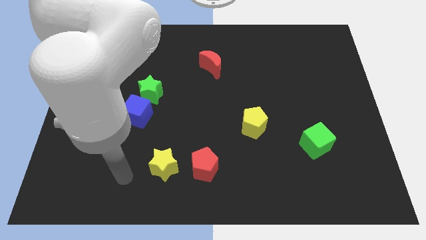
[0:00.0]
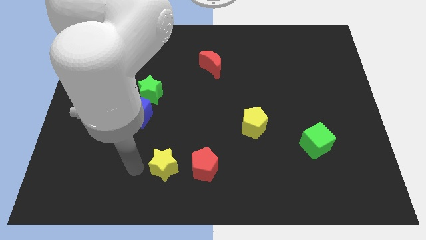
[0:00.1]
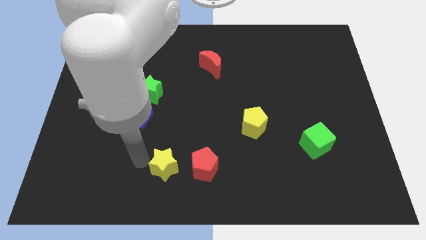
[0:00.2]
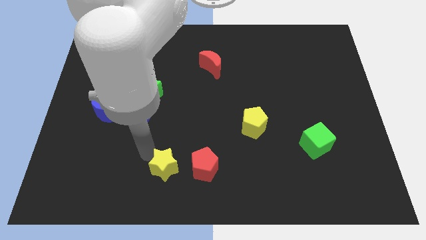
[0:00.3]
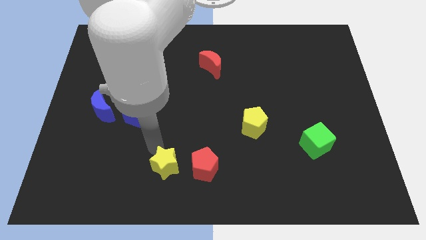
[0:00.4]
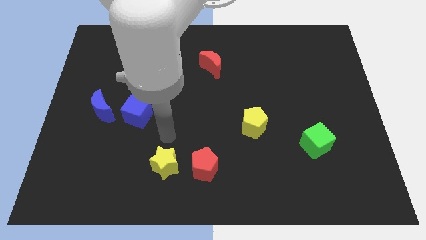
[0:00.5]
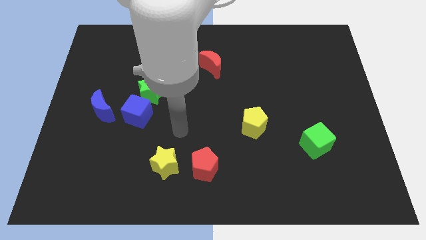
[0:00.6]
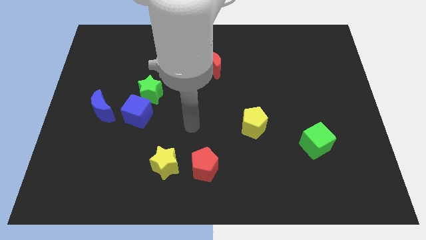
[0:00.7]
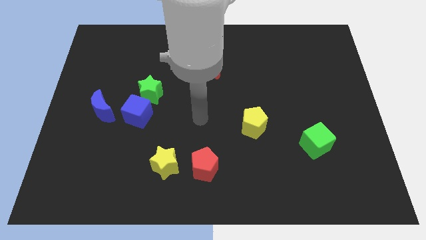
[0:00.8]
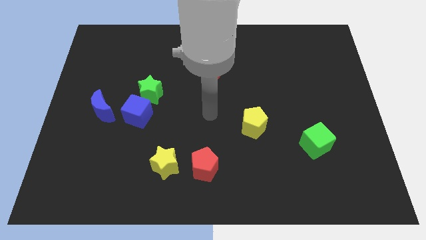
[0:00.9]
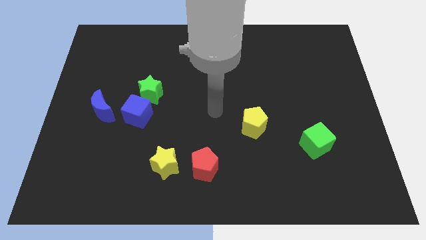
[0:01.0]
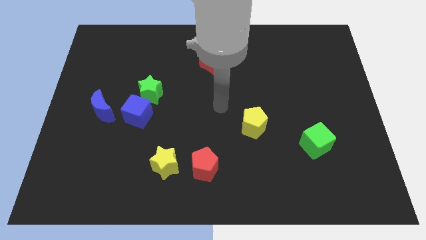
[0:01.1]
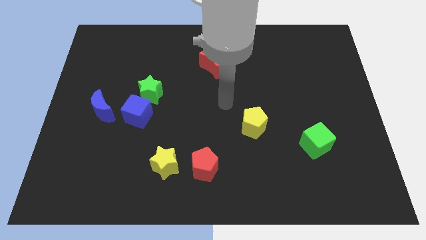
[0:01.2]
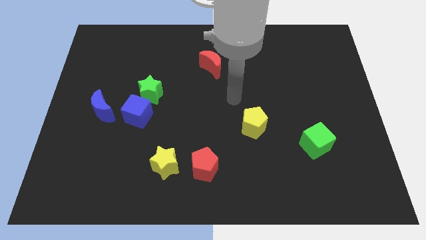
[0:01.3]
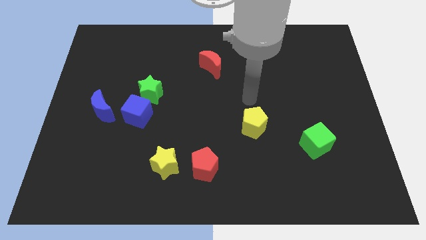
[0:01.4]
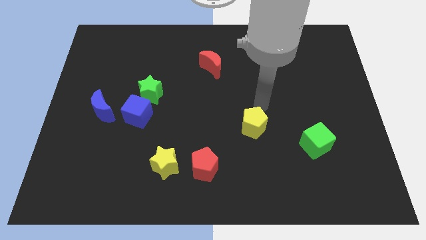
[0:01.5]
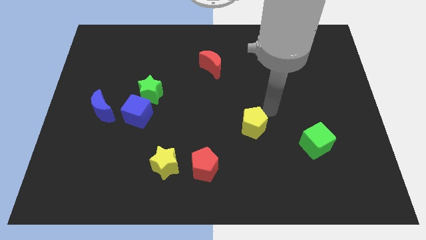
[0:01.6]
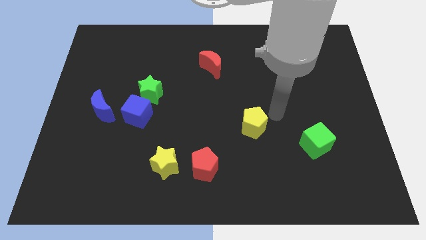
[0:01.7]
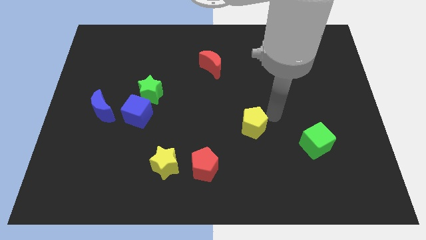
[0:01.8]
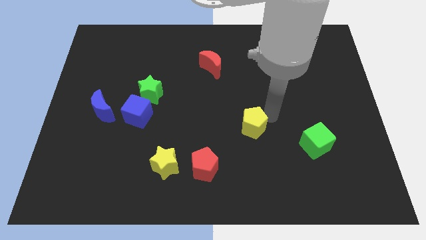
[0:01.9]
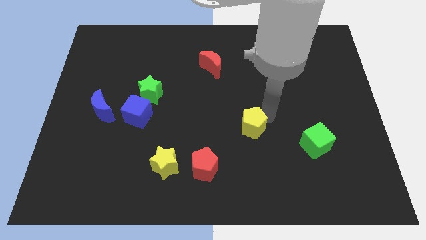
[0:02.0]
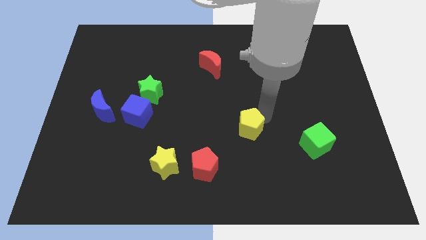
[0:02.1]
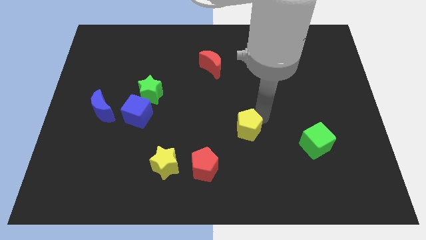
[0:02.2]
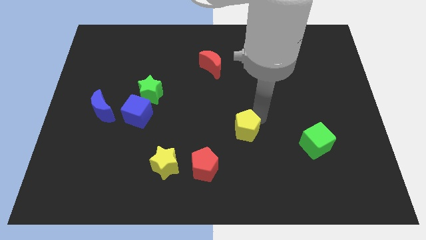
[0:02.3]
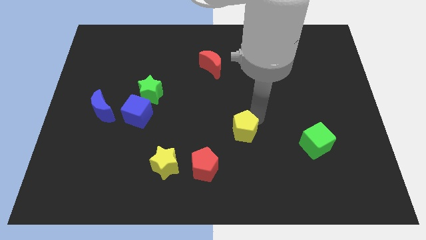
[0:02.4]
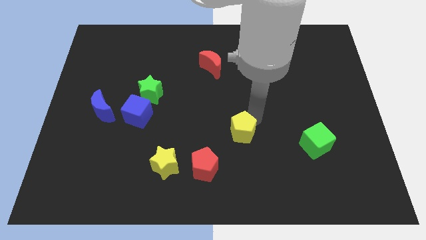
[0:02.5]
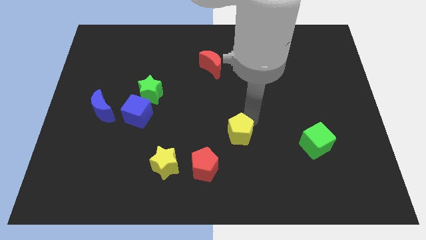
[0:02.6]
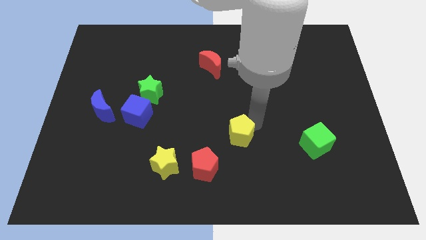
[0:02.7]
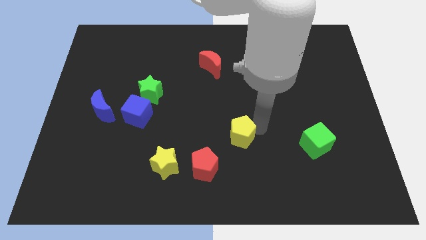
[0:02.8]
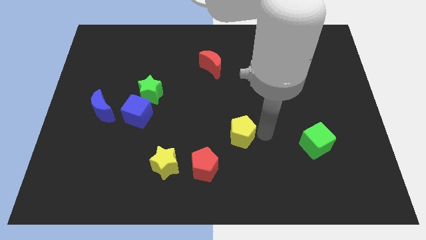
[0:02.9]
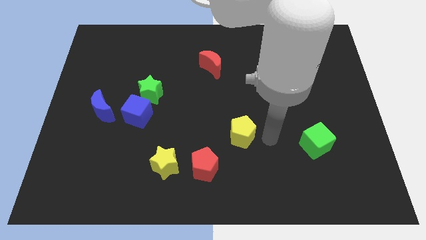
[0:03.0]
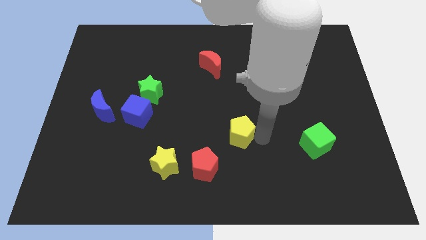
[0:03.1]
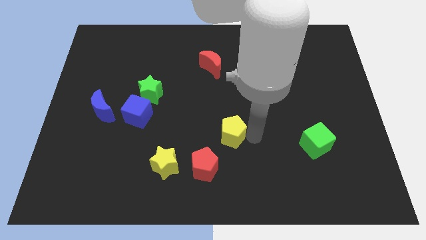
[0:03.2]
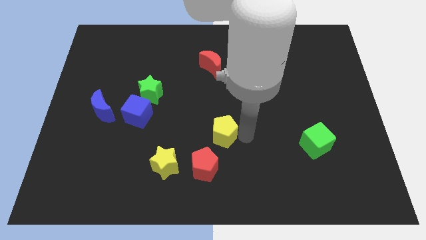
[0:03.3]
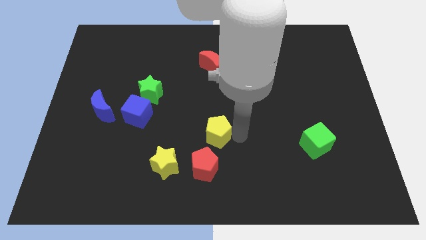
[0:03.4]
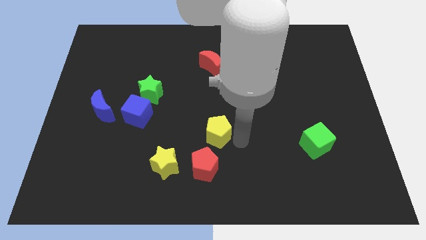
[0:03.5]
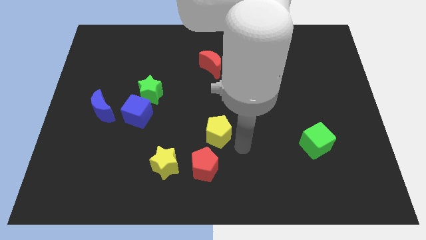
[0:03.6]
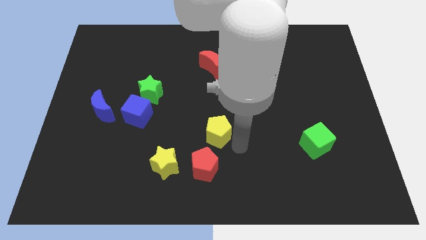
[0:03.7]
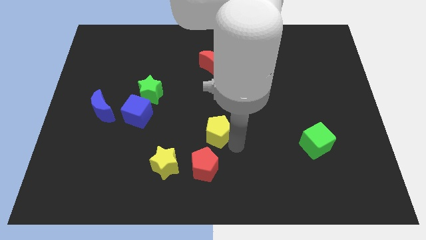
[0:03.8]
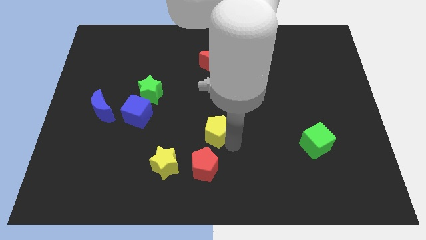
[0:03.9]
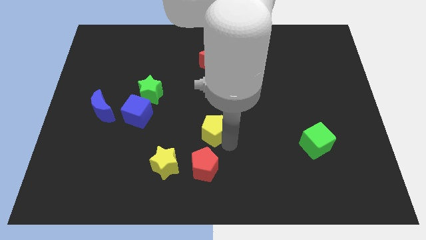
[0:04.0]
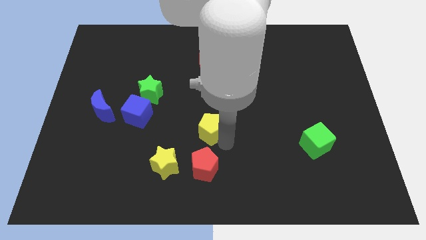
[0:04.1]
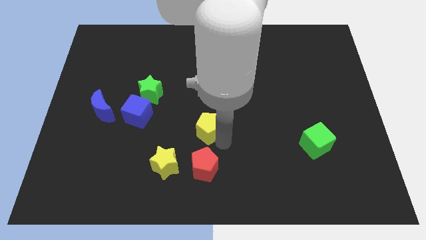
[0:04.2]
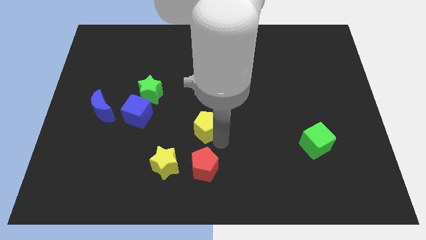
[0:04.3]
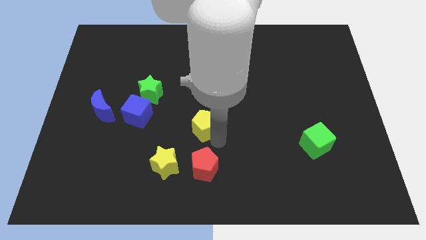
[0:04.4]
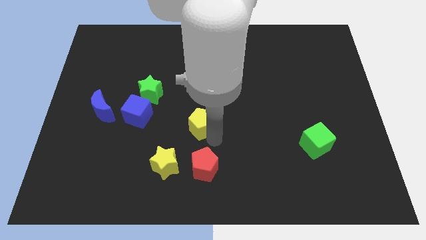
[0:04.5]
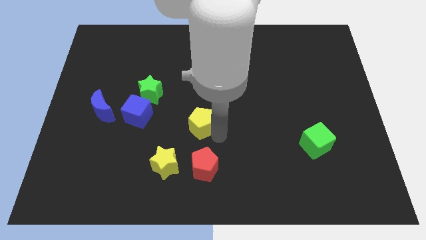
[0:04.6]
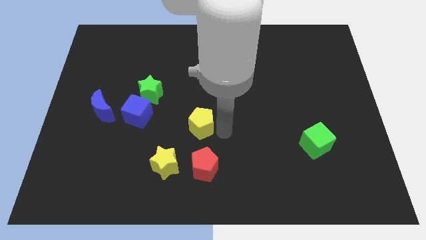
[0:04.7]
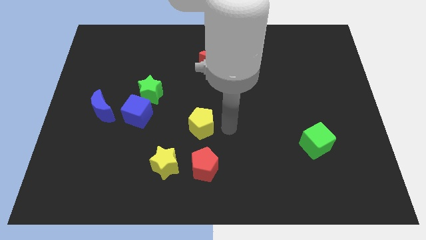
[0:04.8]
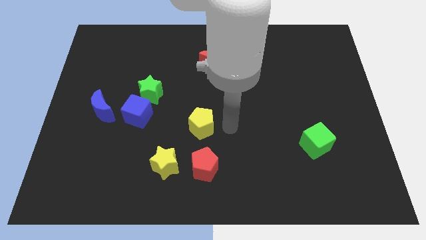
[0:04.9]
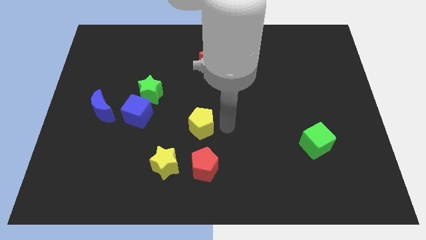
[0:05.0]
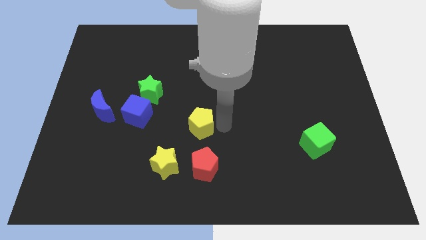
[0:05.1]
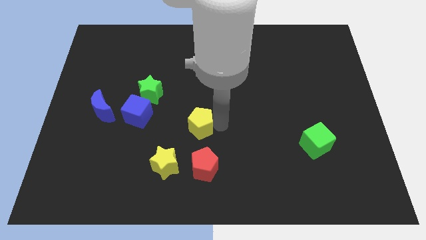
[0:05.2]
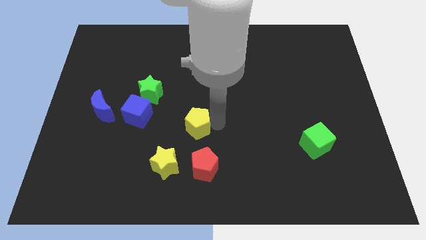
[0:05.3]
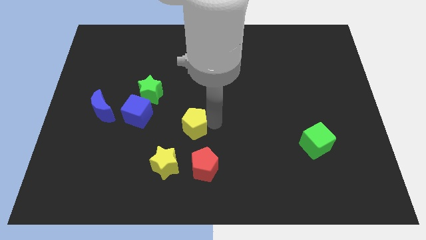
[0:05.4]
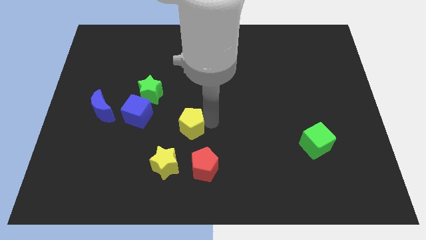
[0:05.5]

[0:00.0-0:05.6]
put the yellow pentagon to the top side of the yellow star

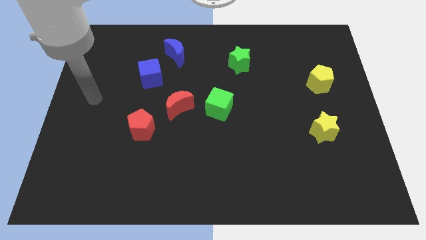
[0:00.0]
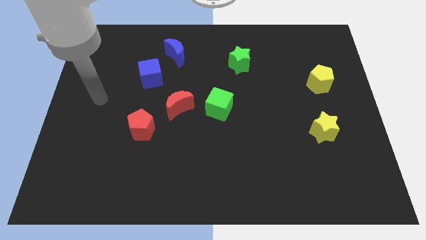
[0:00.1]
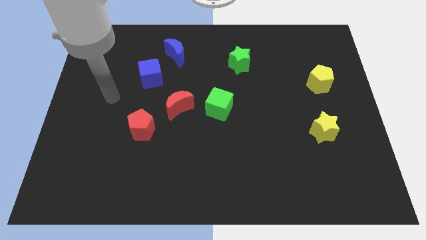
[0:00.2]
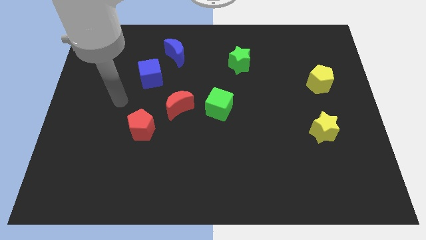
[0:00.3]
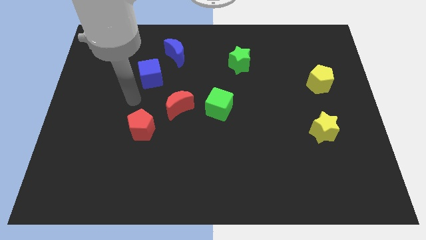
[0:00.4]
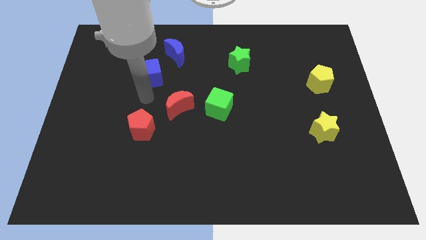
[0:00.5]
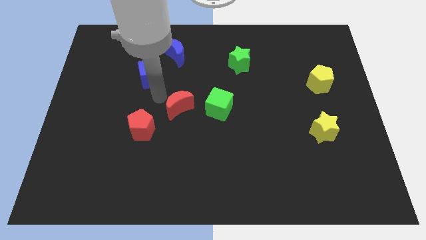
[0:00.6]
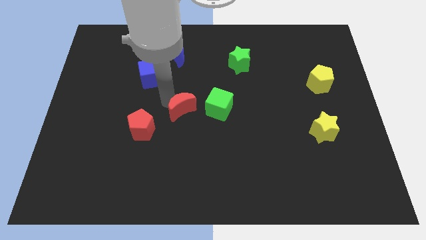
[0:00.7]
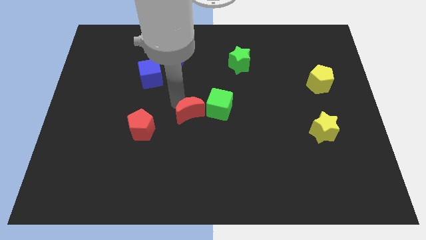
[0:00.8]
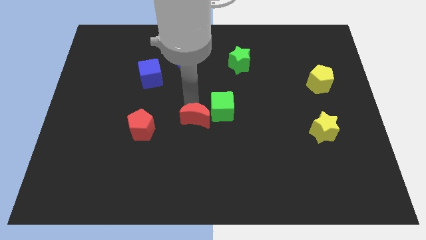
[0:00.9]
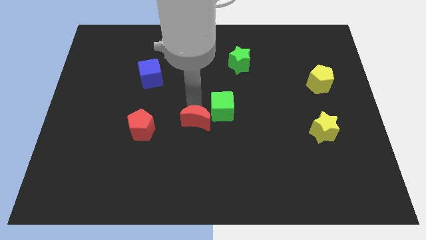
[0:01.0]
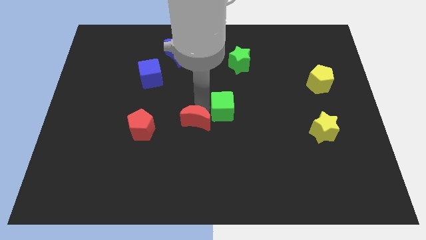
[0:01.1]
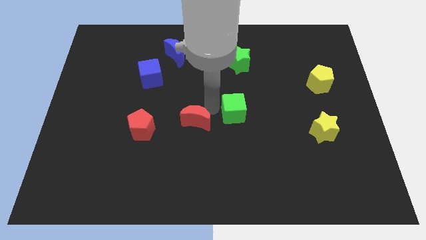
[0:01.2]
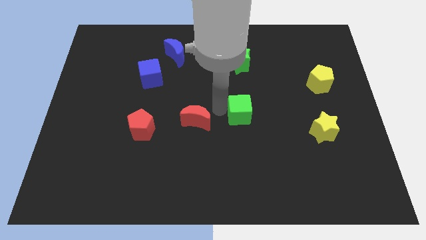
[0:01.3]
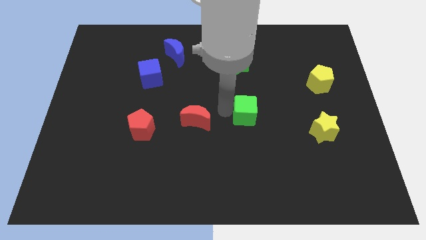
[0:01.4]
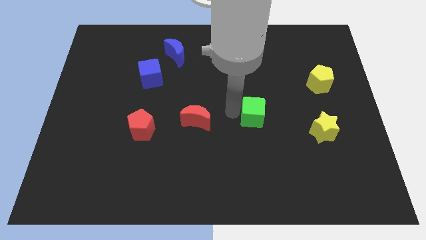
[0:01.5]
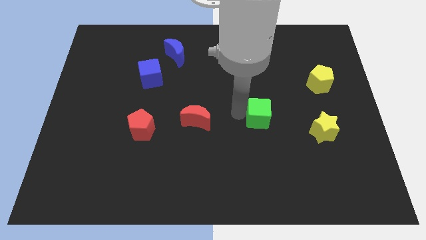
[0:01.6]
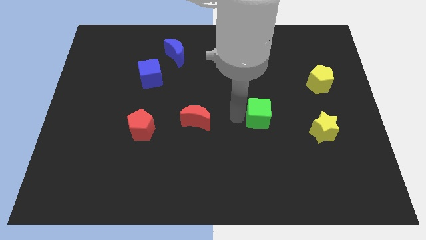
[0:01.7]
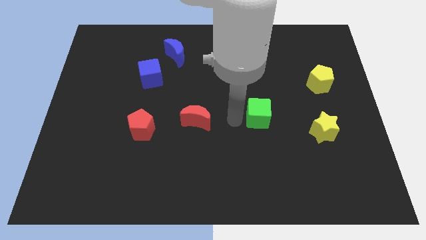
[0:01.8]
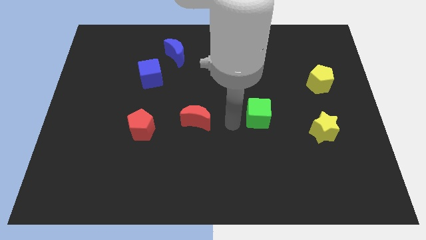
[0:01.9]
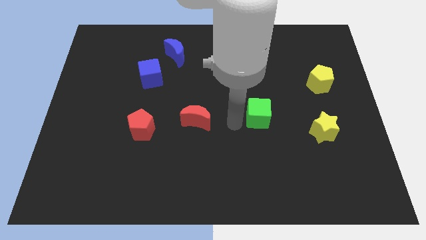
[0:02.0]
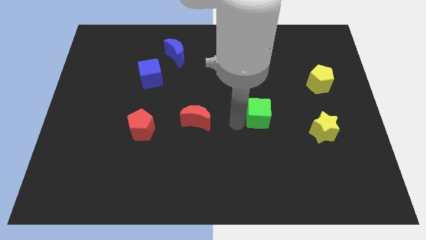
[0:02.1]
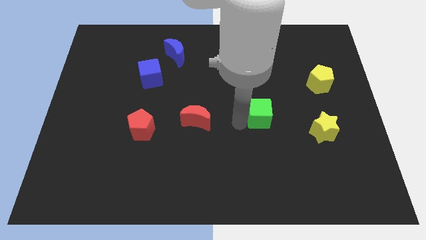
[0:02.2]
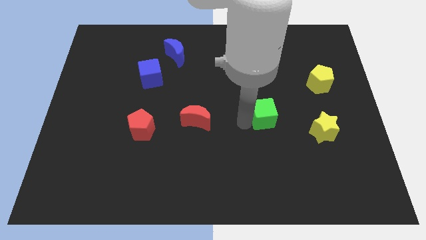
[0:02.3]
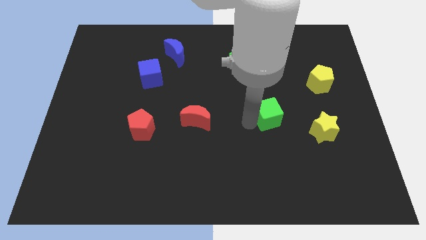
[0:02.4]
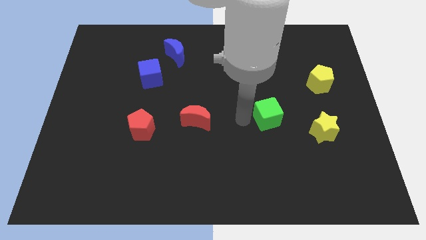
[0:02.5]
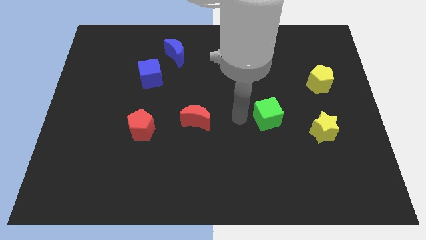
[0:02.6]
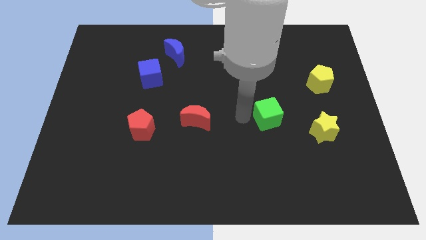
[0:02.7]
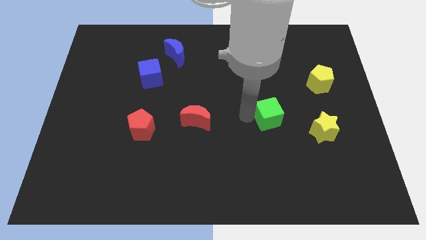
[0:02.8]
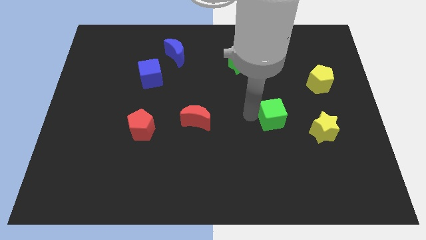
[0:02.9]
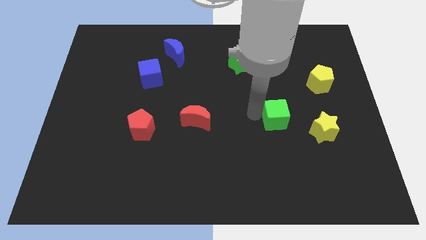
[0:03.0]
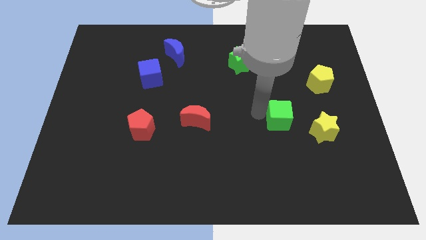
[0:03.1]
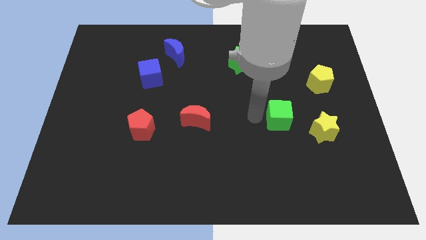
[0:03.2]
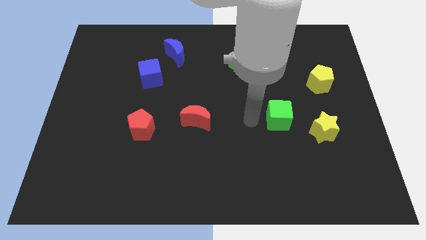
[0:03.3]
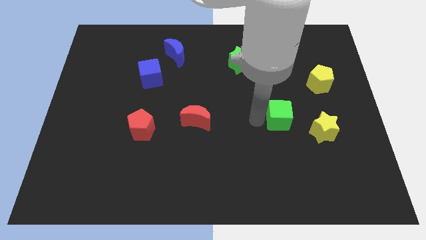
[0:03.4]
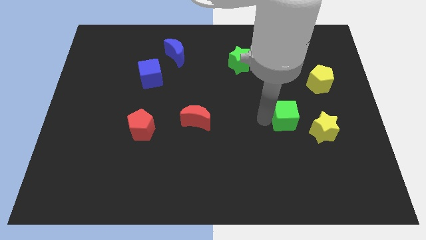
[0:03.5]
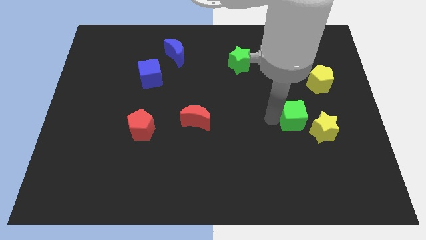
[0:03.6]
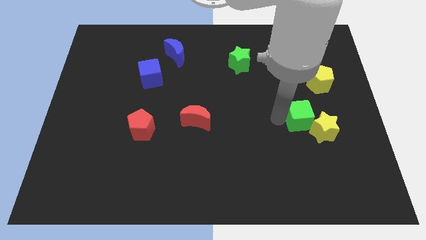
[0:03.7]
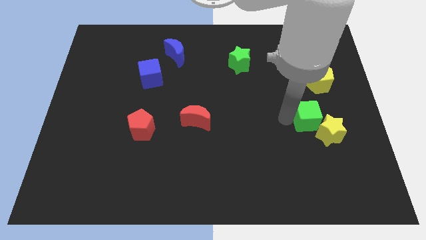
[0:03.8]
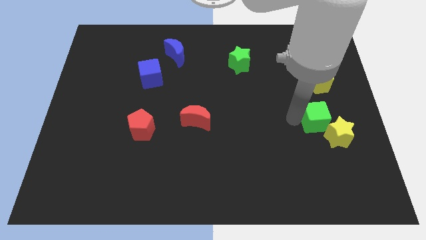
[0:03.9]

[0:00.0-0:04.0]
push the green cube to the bottom of the yellow pentagon
